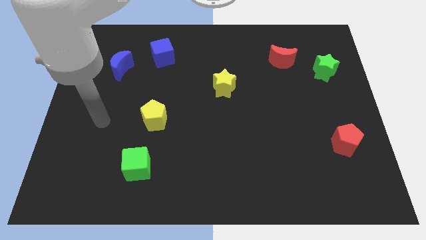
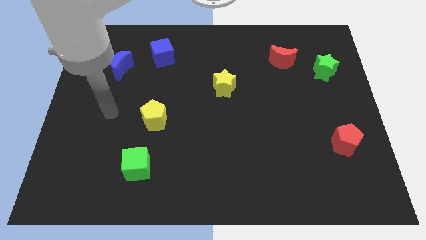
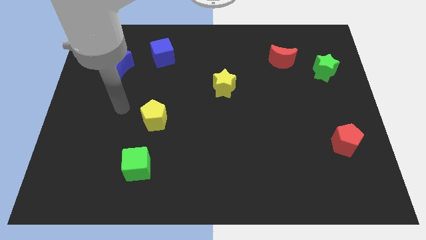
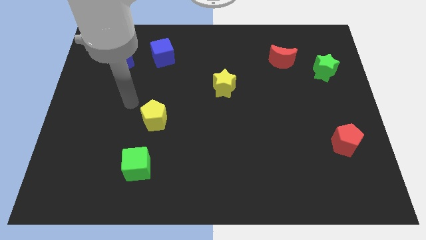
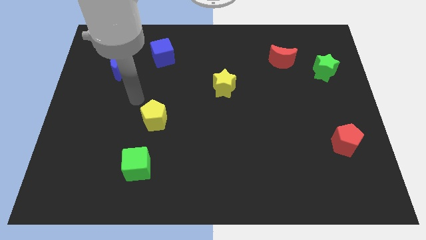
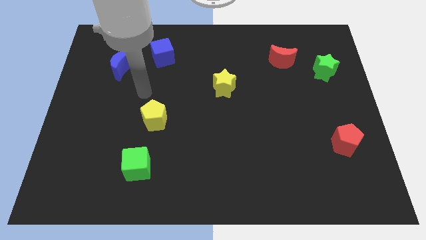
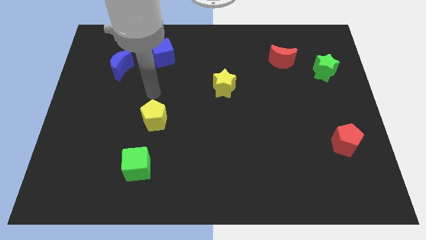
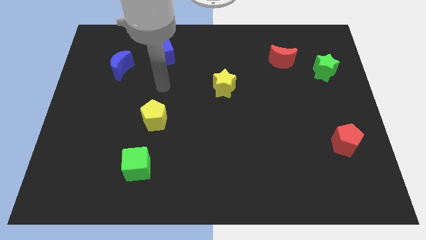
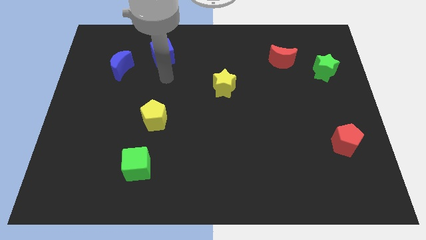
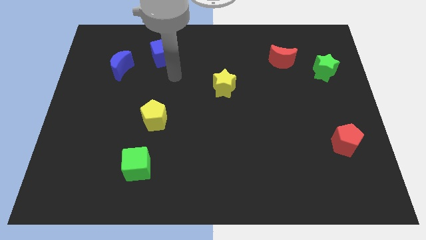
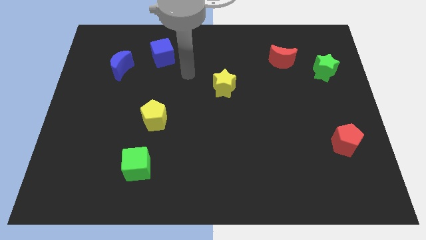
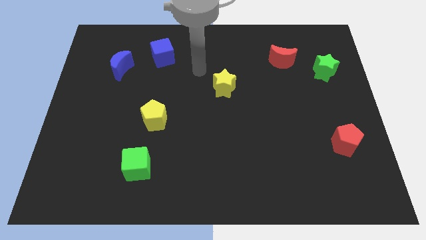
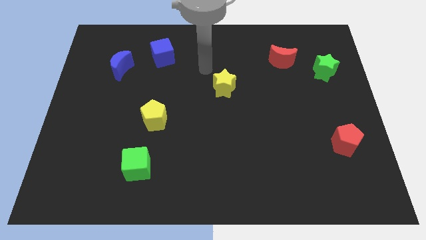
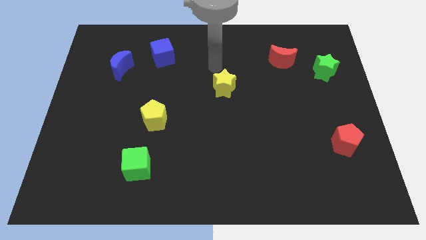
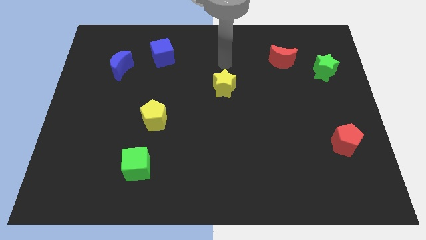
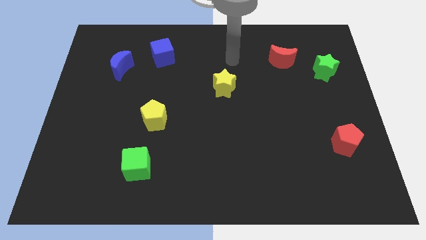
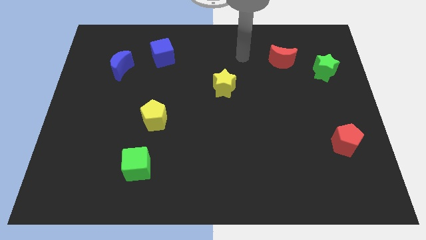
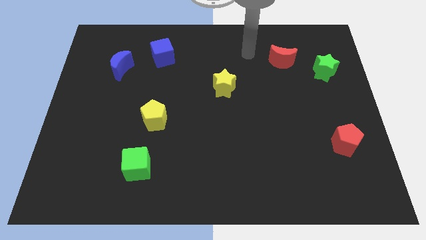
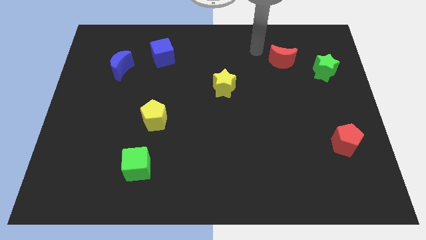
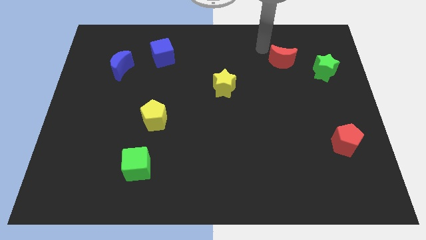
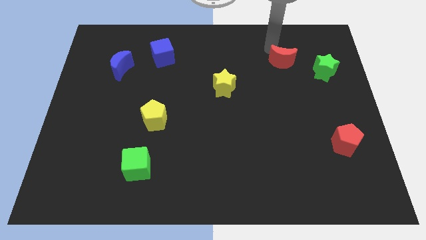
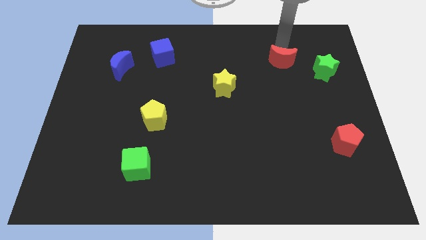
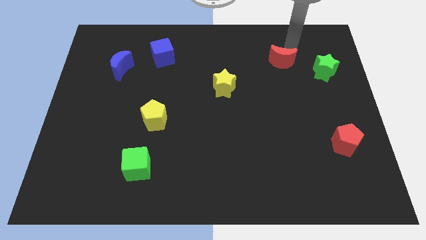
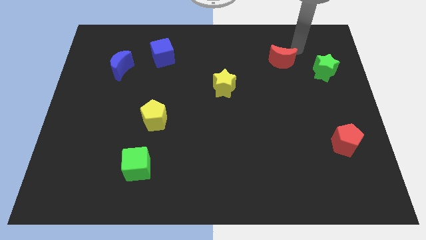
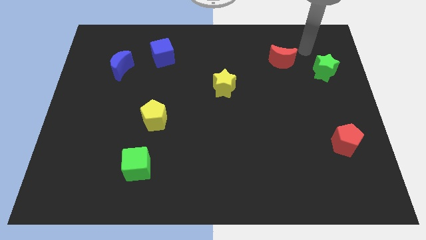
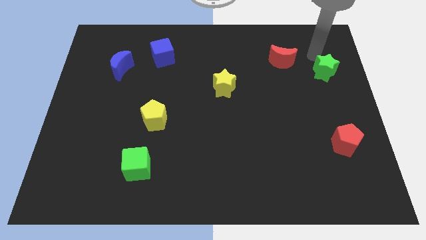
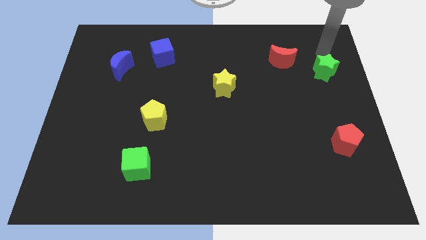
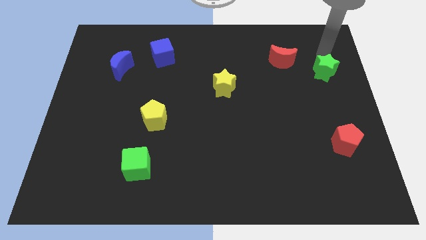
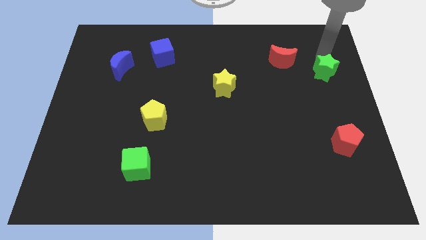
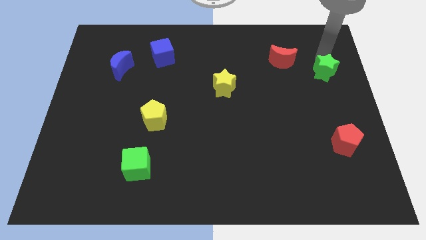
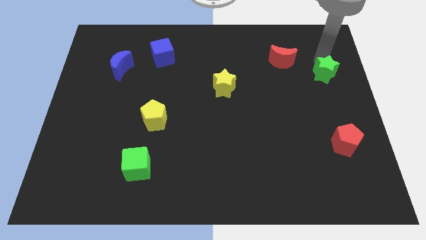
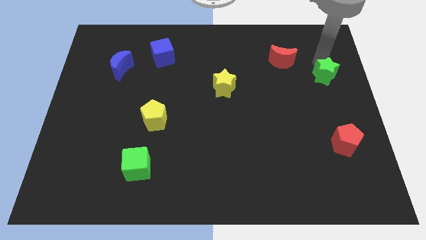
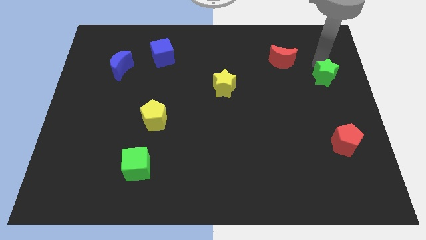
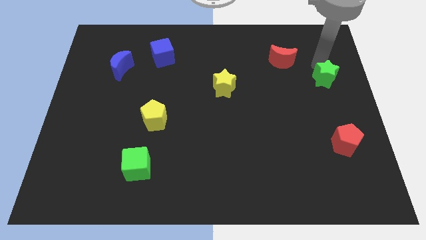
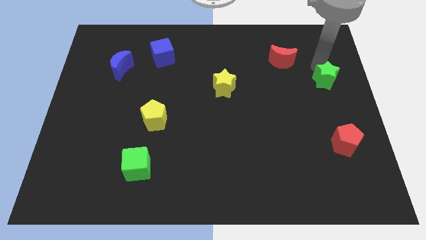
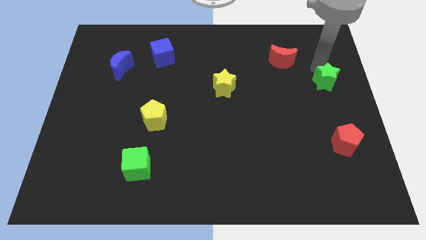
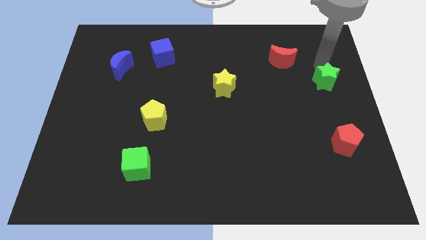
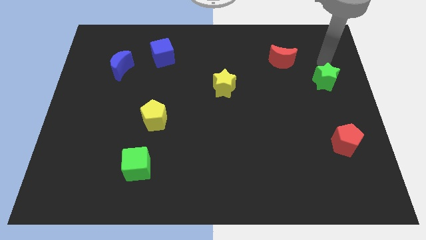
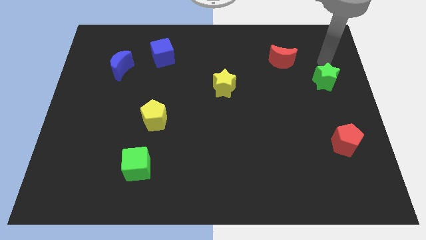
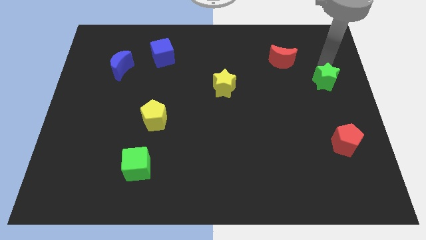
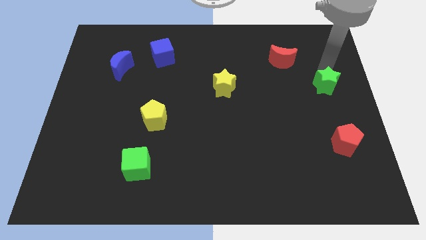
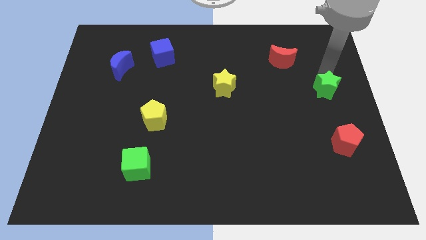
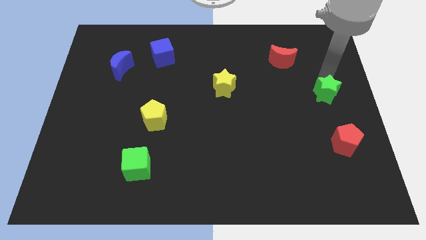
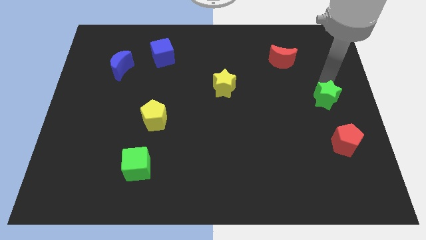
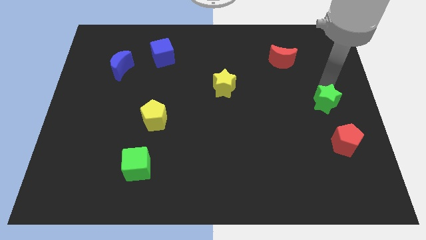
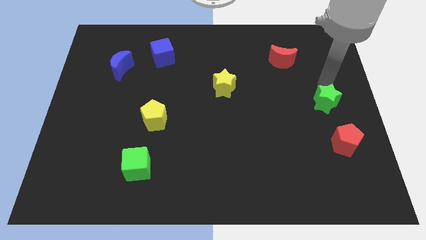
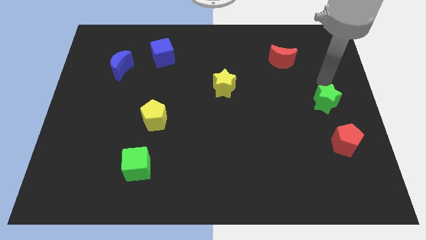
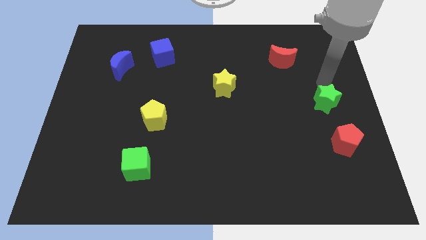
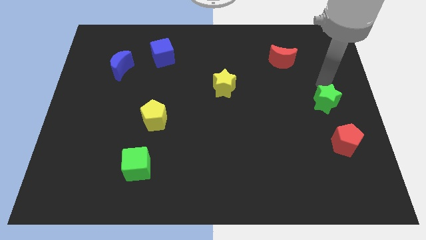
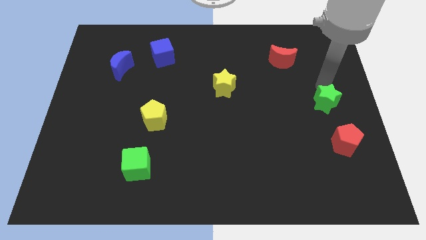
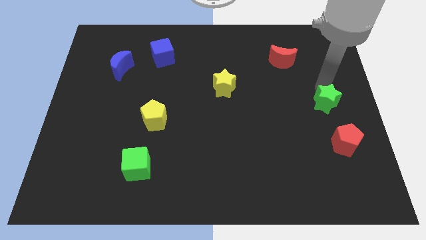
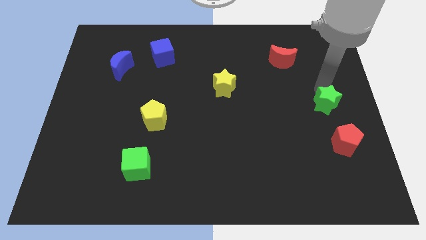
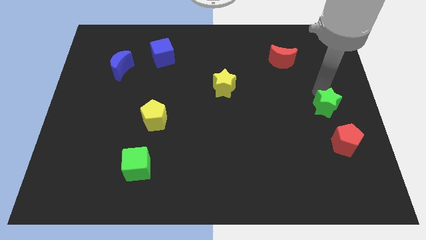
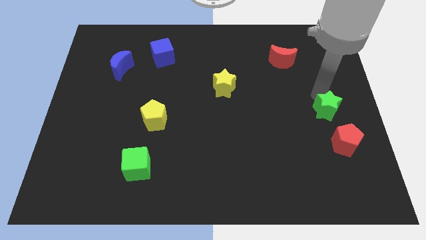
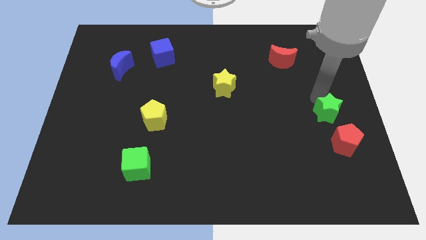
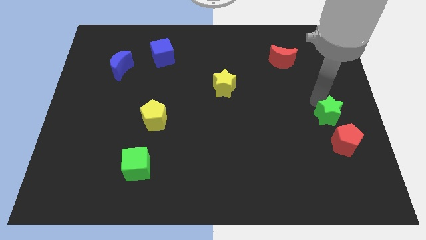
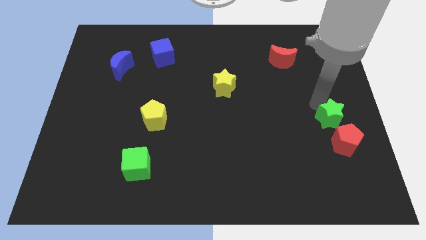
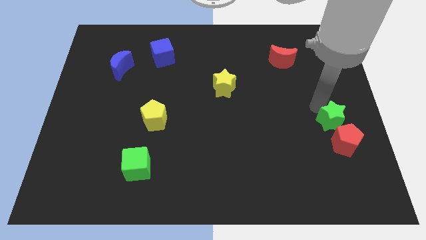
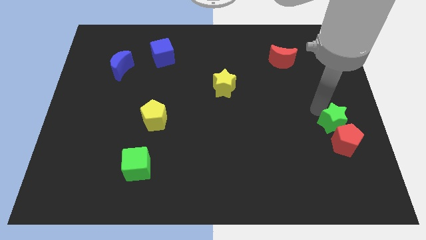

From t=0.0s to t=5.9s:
move the green star to the red pentagon
